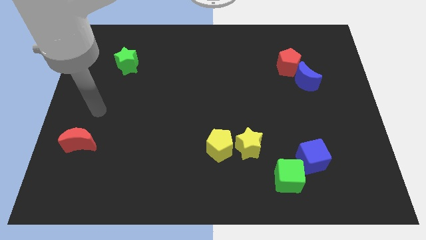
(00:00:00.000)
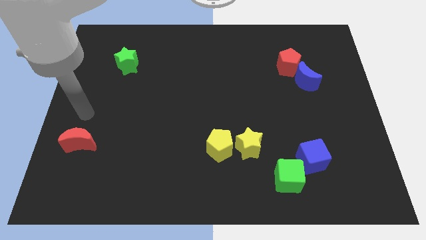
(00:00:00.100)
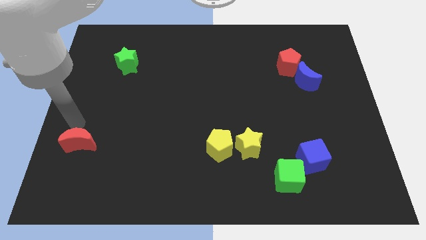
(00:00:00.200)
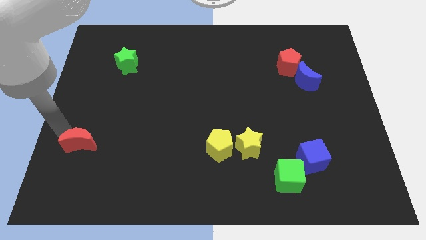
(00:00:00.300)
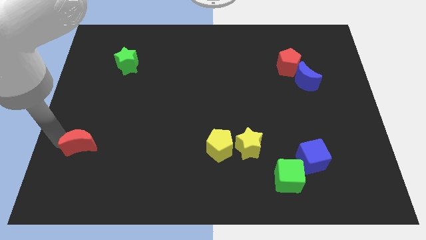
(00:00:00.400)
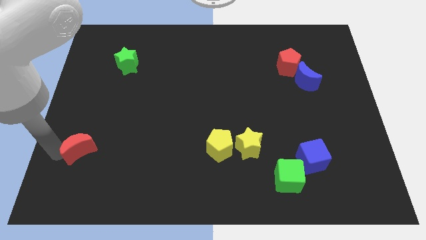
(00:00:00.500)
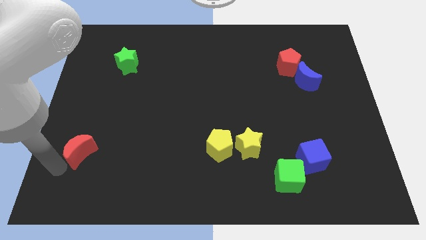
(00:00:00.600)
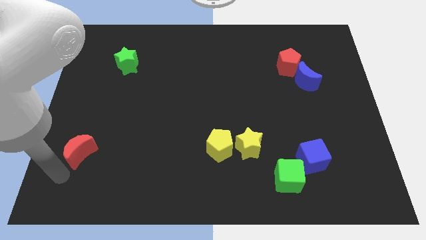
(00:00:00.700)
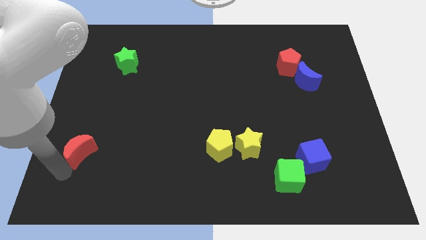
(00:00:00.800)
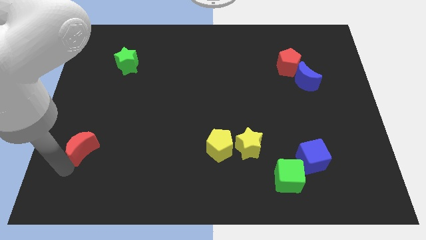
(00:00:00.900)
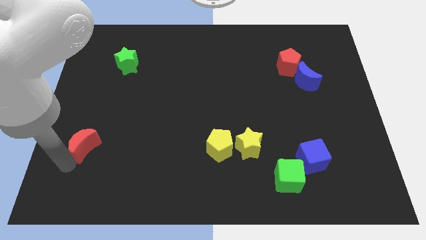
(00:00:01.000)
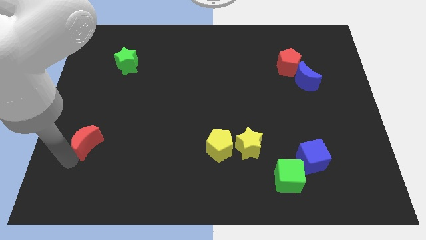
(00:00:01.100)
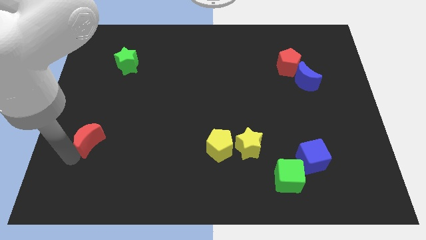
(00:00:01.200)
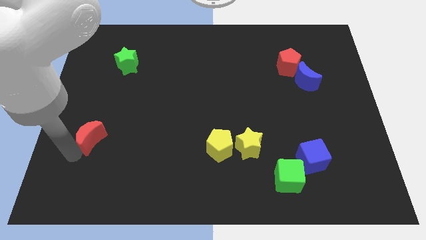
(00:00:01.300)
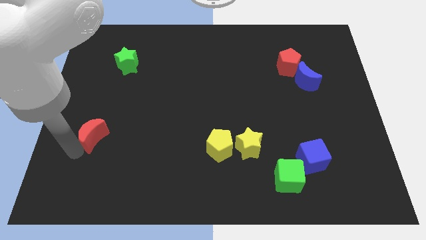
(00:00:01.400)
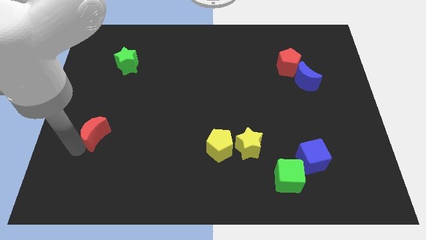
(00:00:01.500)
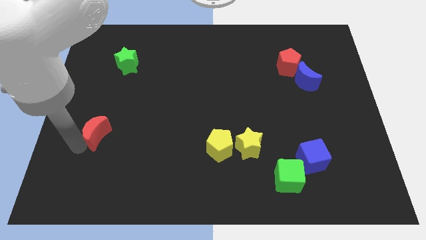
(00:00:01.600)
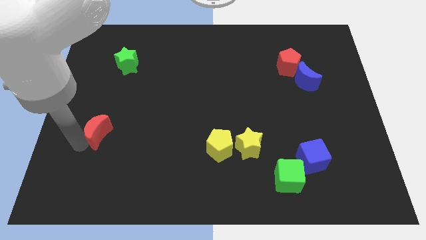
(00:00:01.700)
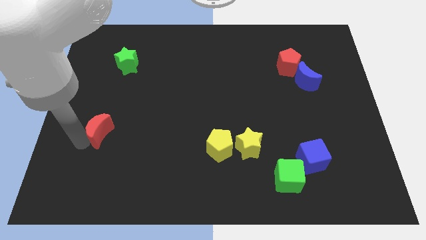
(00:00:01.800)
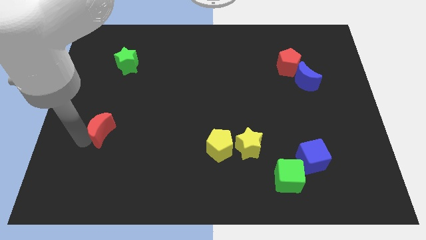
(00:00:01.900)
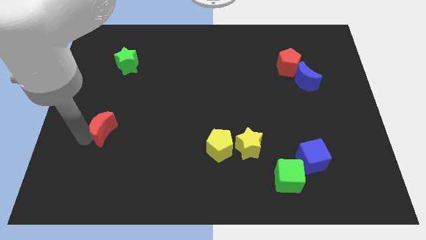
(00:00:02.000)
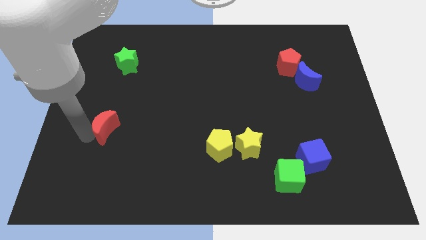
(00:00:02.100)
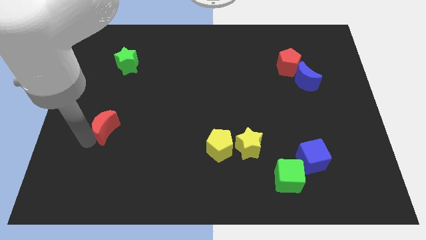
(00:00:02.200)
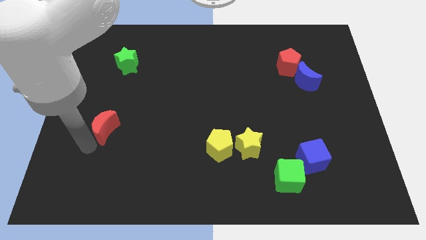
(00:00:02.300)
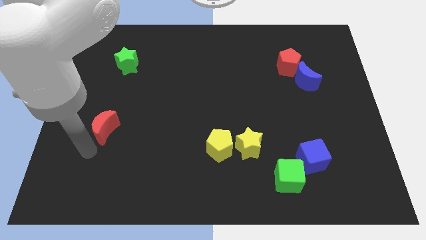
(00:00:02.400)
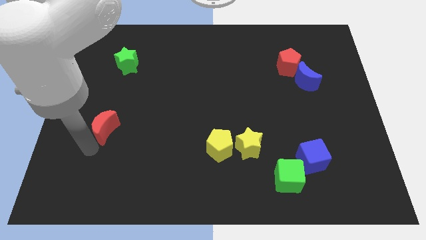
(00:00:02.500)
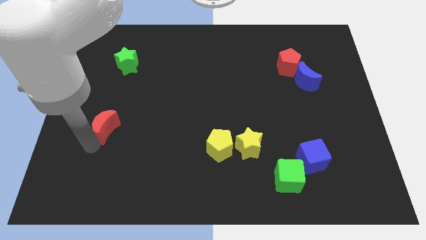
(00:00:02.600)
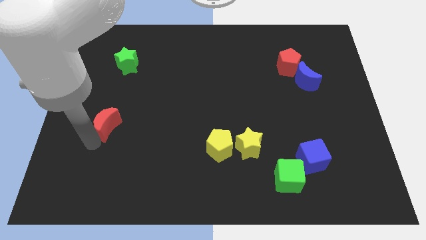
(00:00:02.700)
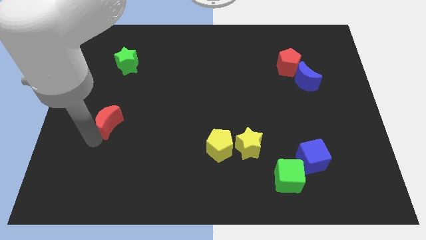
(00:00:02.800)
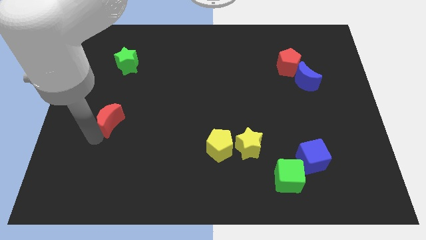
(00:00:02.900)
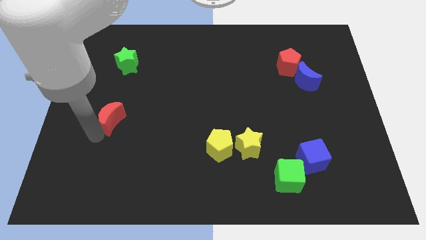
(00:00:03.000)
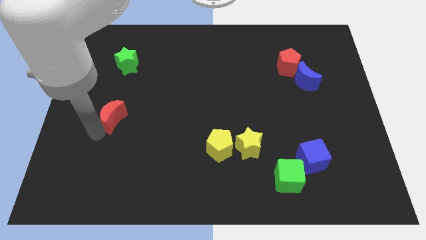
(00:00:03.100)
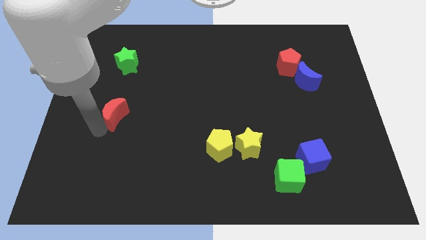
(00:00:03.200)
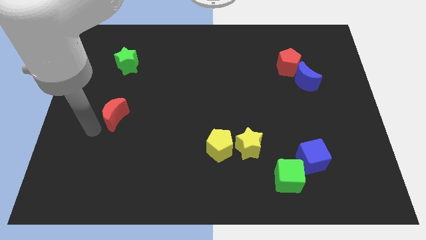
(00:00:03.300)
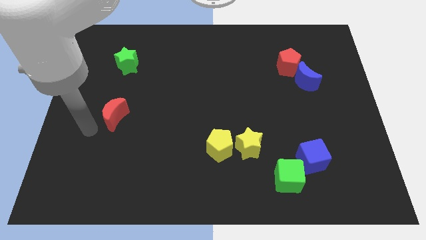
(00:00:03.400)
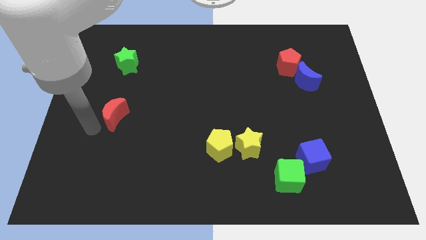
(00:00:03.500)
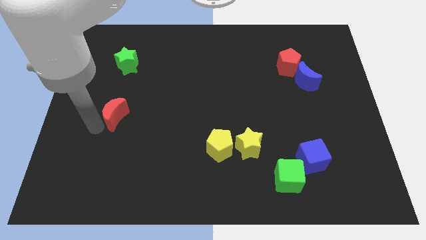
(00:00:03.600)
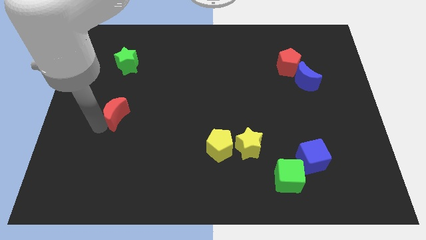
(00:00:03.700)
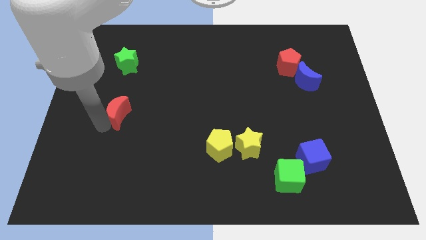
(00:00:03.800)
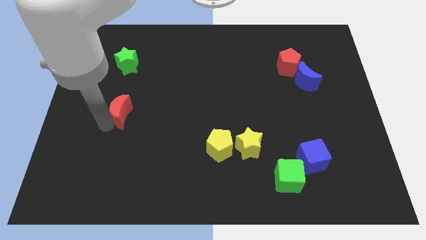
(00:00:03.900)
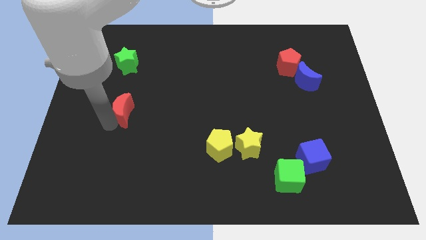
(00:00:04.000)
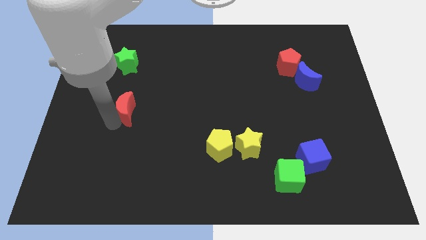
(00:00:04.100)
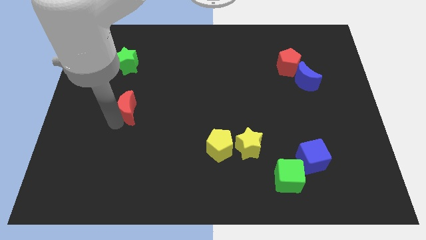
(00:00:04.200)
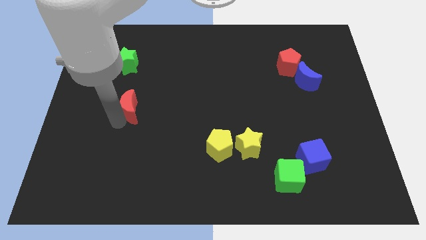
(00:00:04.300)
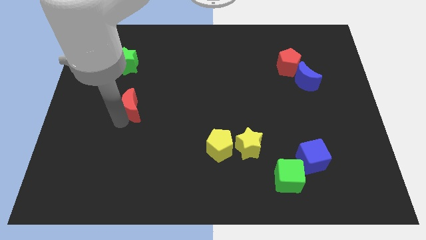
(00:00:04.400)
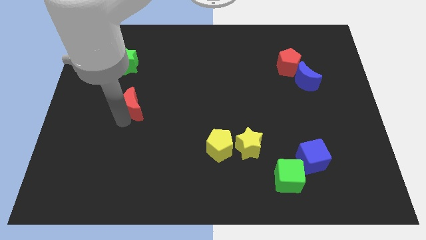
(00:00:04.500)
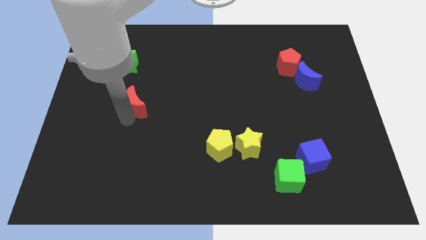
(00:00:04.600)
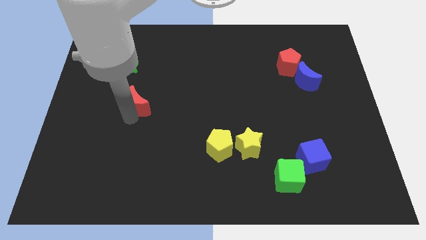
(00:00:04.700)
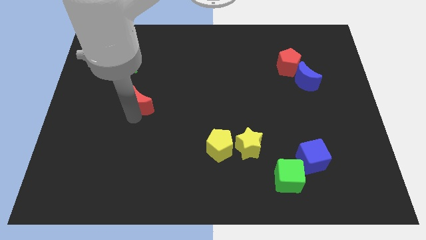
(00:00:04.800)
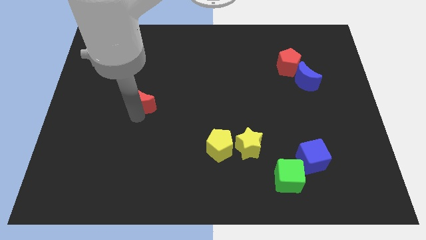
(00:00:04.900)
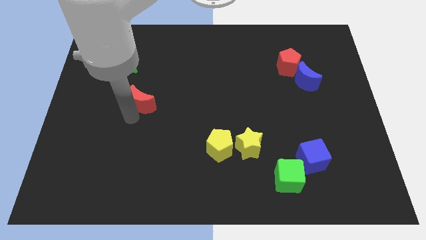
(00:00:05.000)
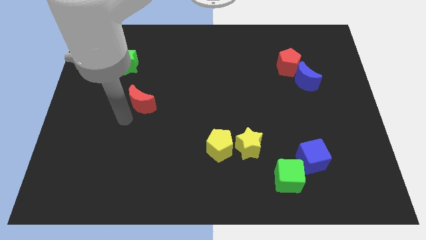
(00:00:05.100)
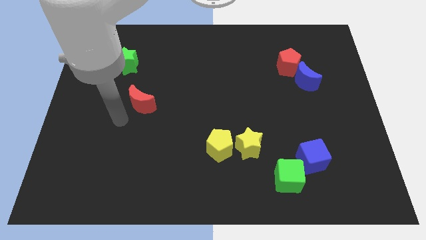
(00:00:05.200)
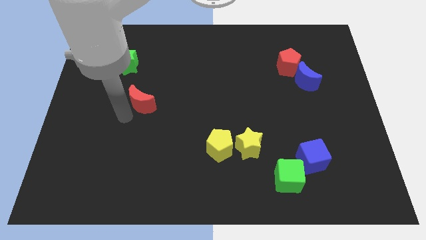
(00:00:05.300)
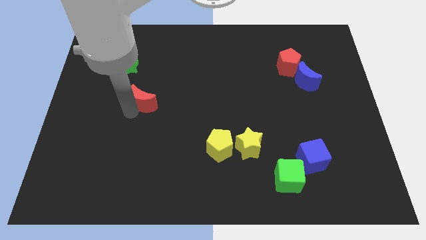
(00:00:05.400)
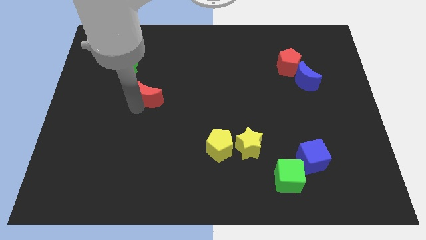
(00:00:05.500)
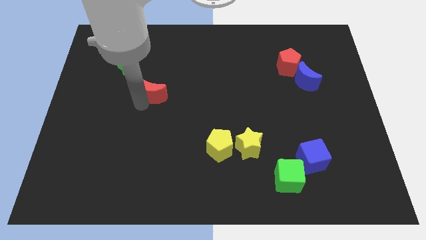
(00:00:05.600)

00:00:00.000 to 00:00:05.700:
move the red moon upwards and then to the right

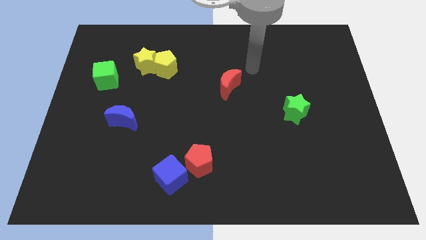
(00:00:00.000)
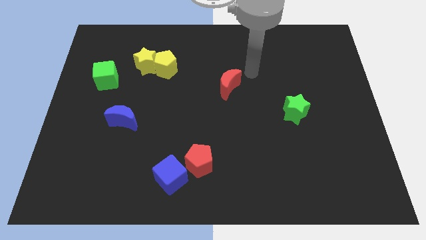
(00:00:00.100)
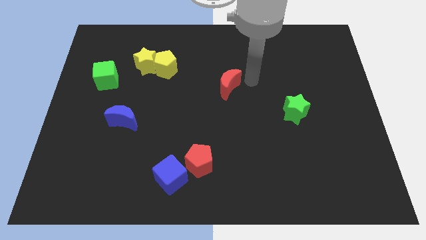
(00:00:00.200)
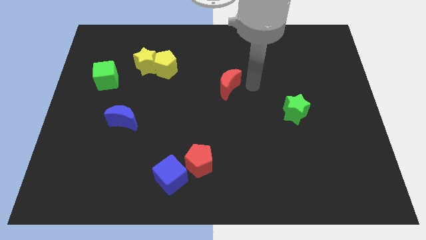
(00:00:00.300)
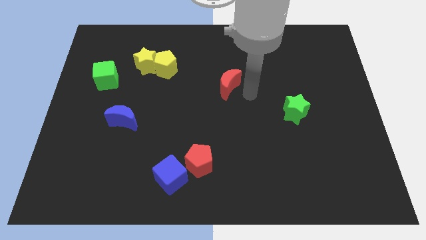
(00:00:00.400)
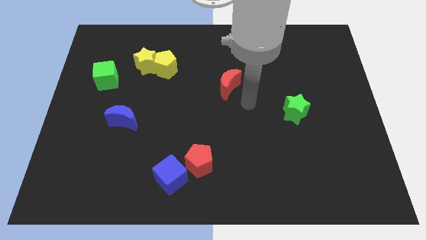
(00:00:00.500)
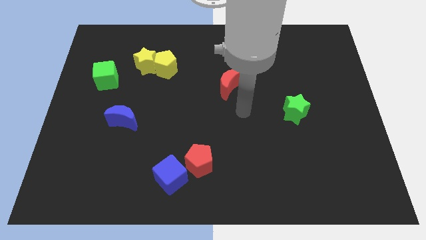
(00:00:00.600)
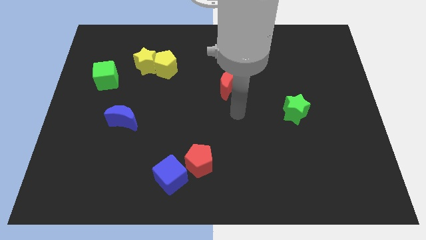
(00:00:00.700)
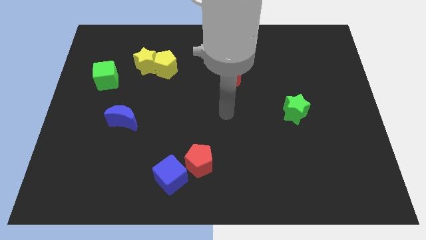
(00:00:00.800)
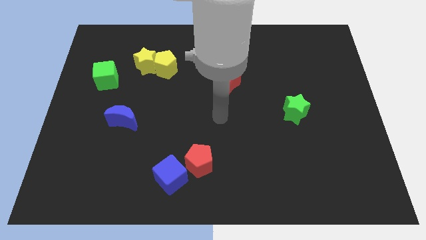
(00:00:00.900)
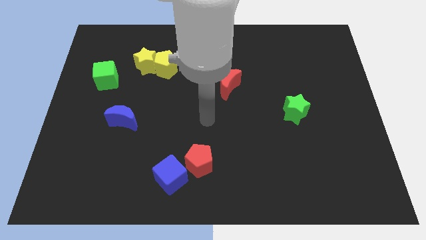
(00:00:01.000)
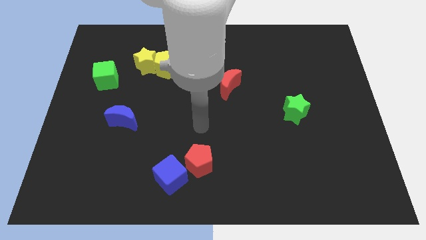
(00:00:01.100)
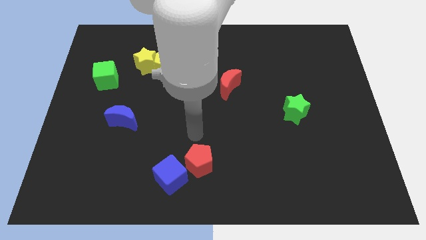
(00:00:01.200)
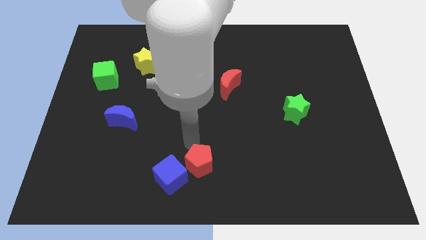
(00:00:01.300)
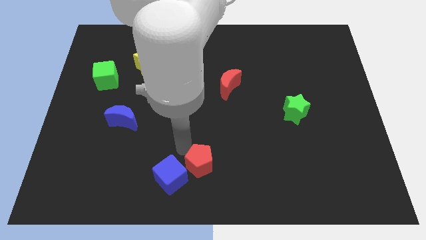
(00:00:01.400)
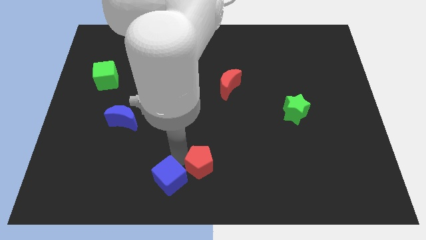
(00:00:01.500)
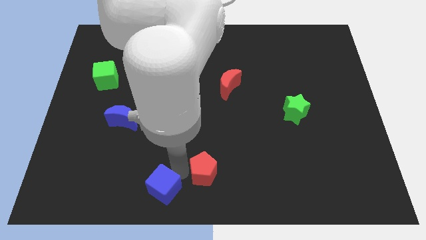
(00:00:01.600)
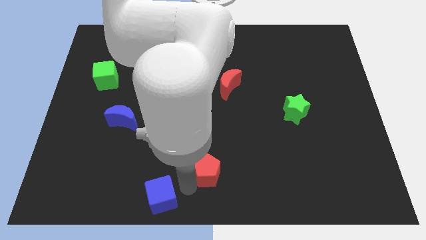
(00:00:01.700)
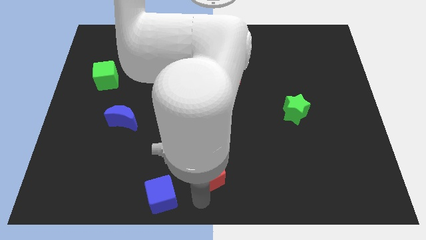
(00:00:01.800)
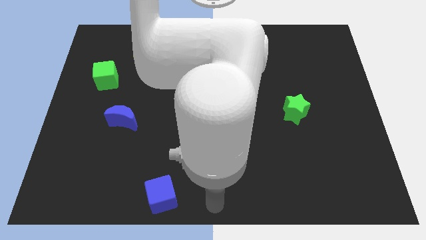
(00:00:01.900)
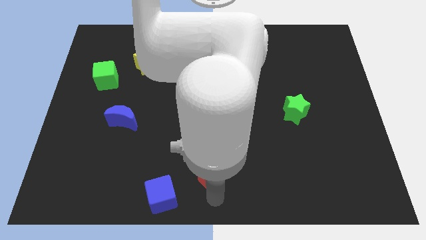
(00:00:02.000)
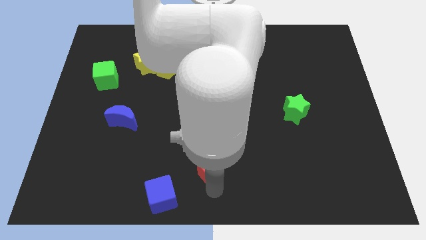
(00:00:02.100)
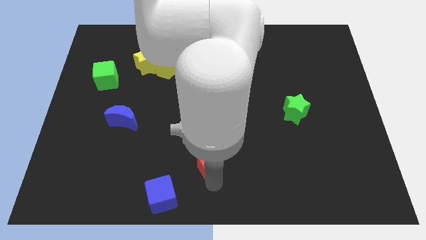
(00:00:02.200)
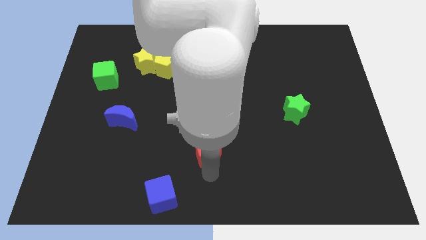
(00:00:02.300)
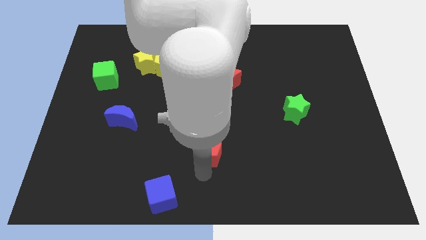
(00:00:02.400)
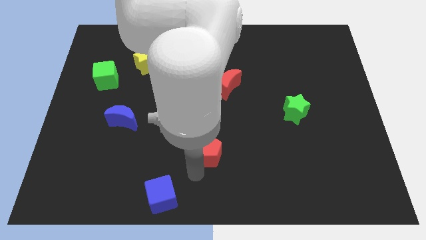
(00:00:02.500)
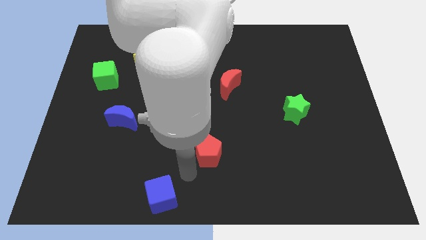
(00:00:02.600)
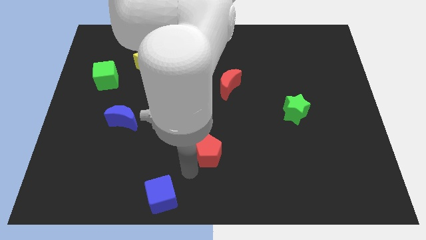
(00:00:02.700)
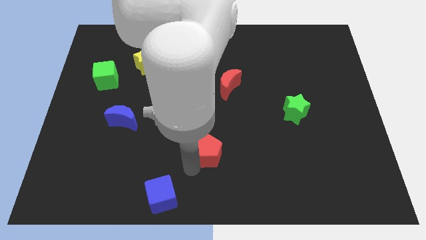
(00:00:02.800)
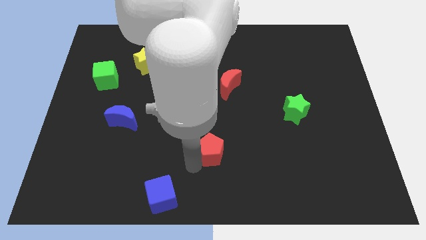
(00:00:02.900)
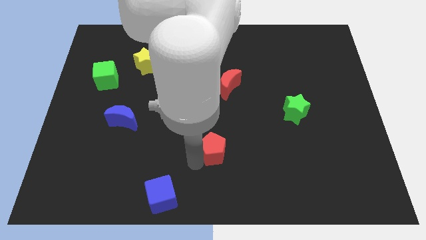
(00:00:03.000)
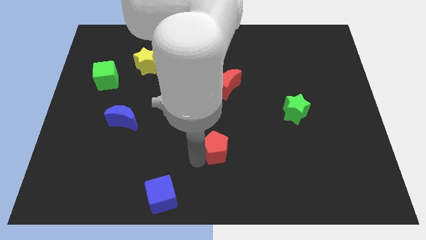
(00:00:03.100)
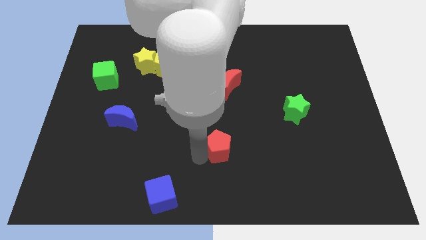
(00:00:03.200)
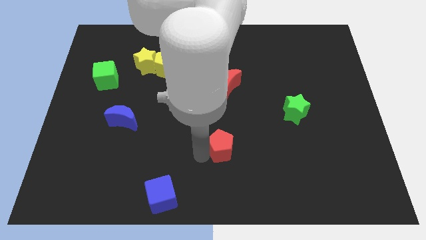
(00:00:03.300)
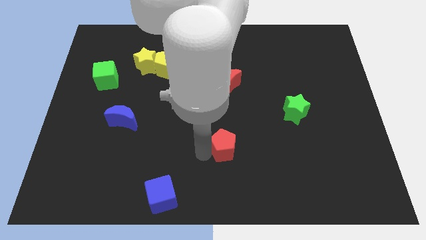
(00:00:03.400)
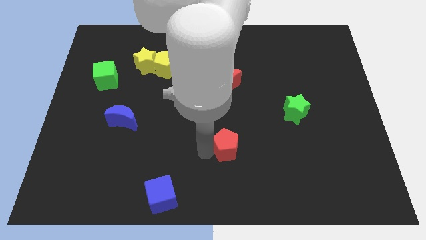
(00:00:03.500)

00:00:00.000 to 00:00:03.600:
push the red pentagon a little bit up and to the right diagonally
